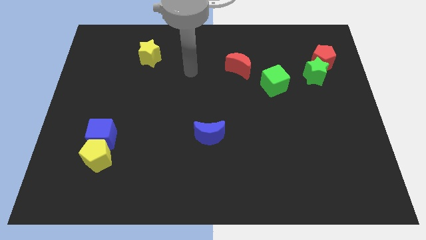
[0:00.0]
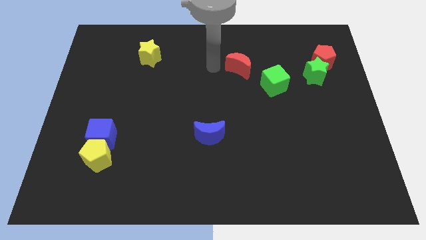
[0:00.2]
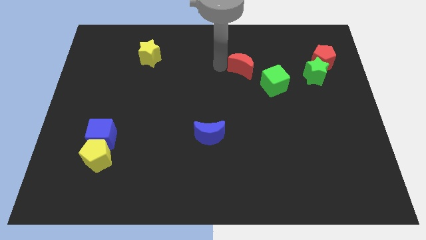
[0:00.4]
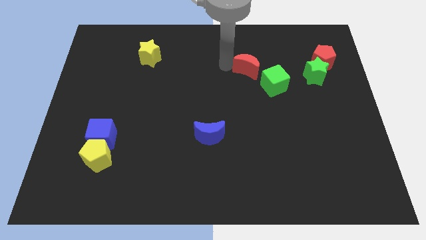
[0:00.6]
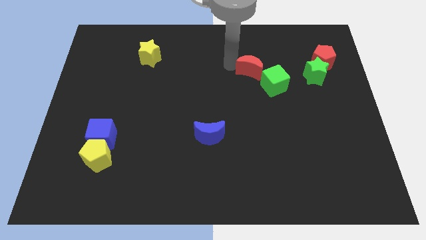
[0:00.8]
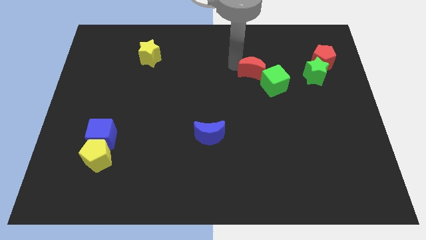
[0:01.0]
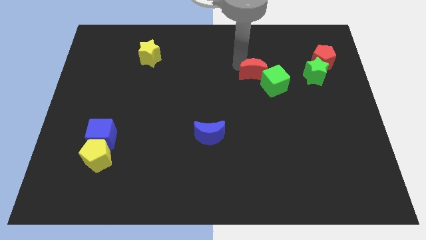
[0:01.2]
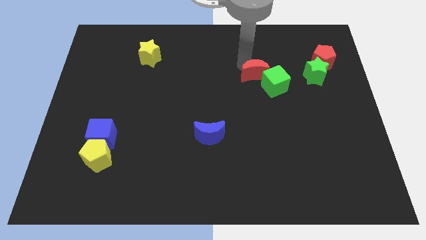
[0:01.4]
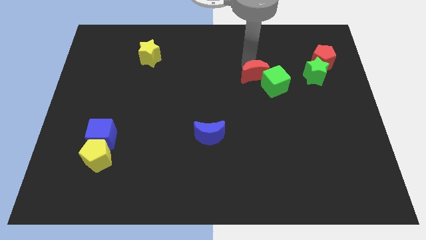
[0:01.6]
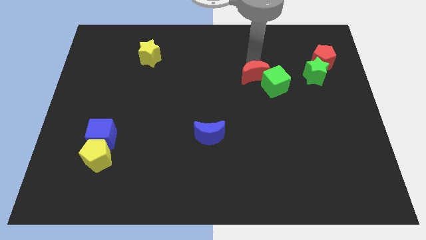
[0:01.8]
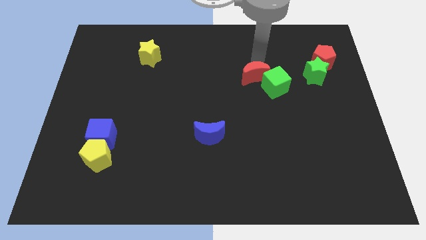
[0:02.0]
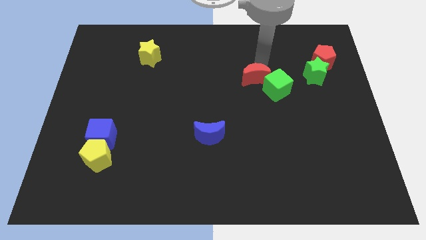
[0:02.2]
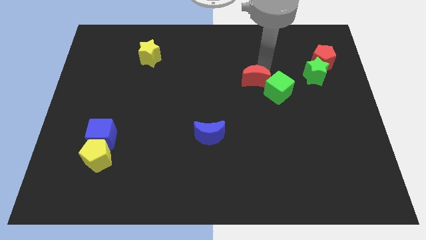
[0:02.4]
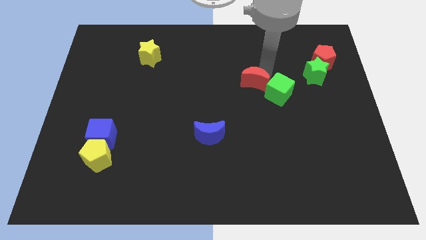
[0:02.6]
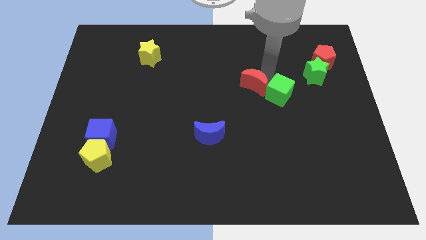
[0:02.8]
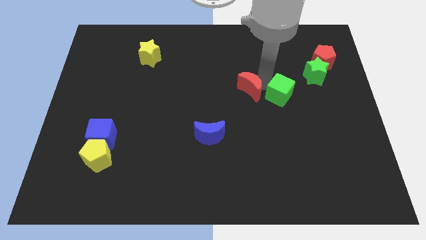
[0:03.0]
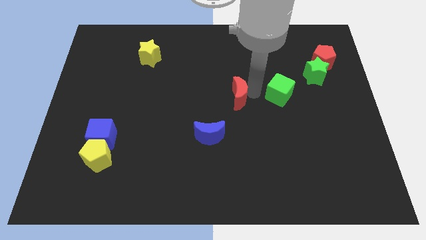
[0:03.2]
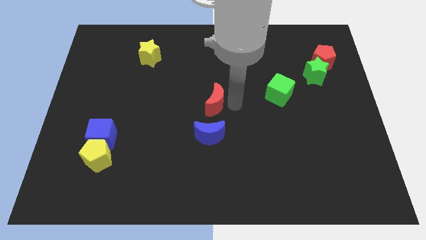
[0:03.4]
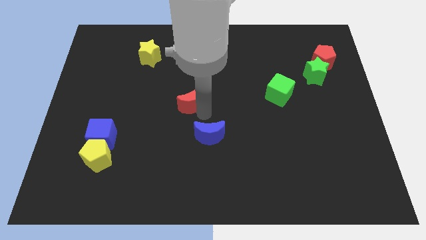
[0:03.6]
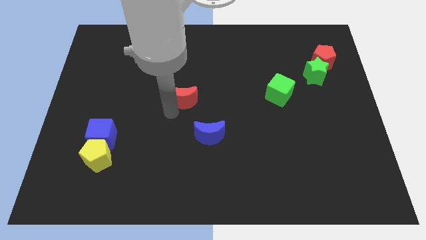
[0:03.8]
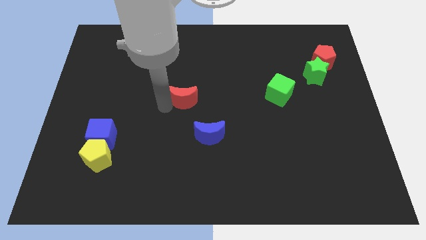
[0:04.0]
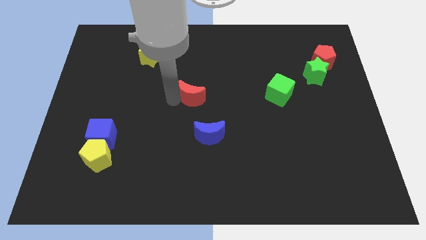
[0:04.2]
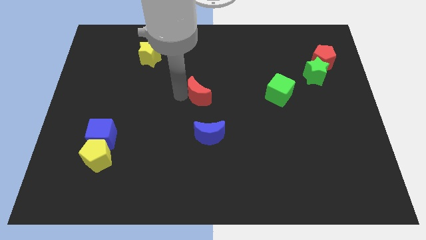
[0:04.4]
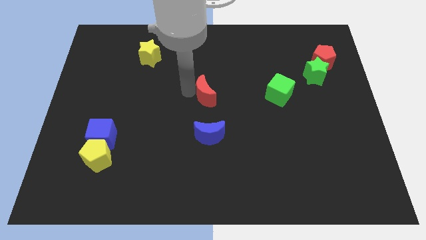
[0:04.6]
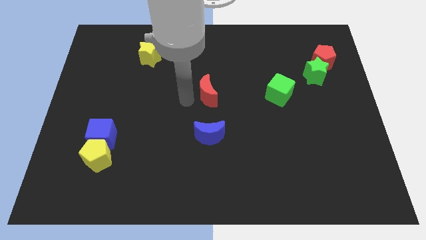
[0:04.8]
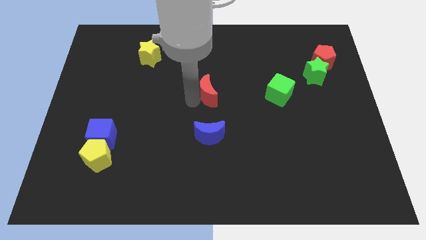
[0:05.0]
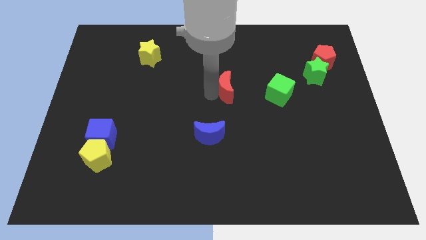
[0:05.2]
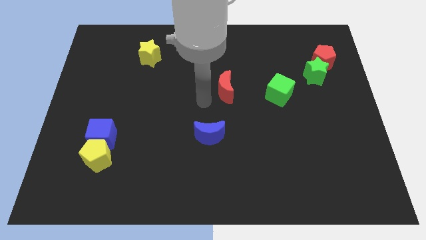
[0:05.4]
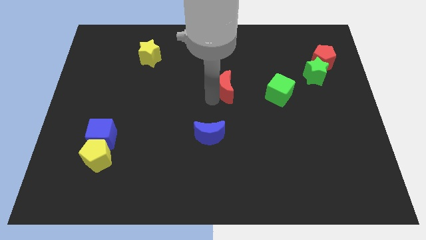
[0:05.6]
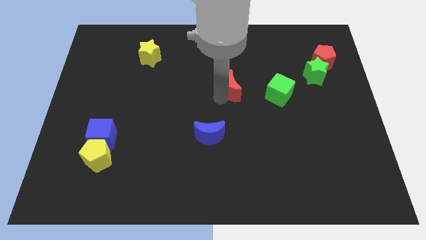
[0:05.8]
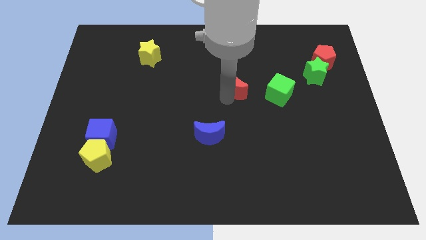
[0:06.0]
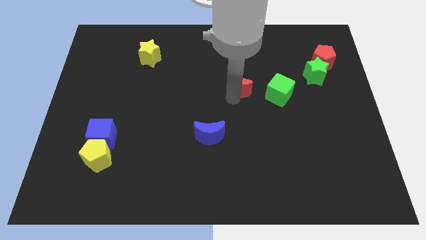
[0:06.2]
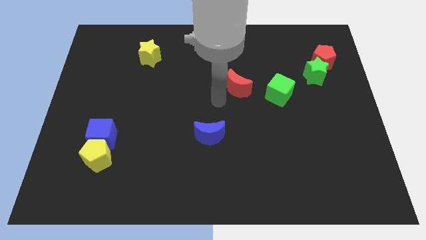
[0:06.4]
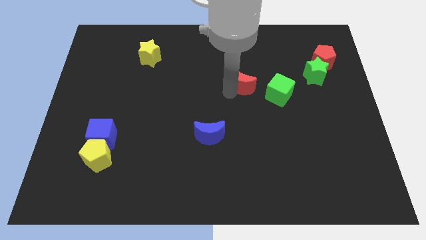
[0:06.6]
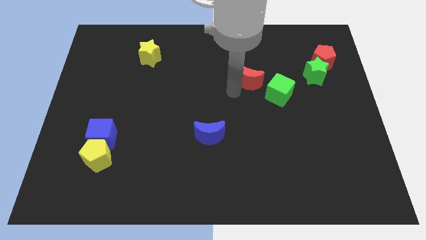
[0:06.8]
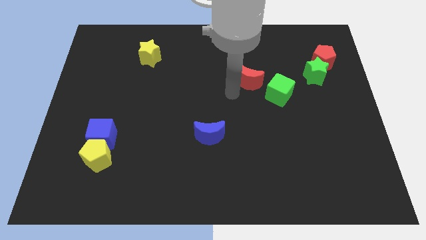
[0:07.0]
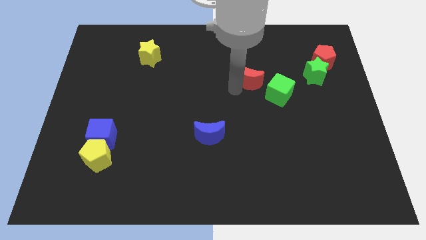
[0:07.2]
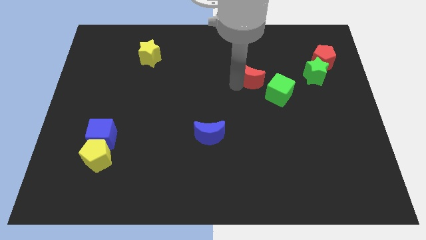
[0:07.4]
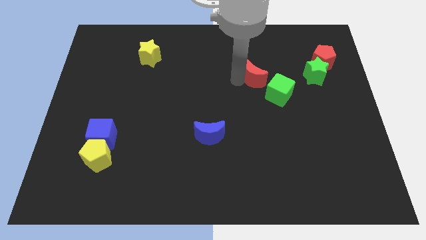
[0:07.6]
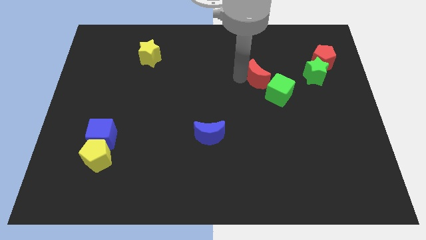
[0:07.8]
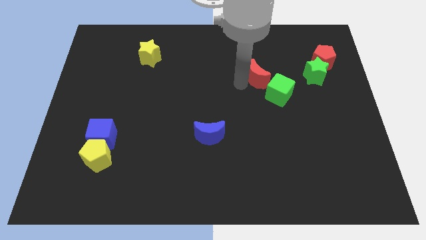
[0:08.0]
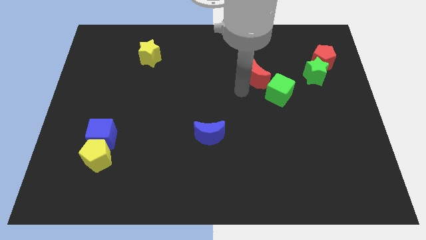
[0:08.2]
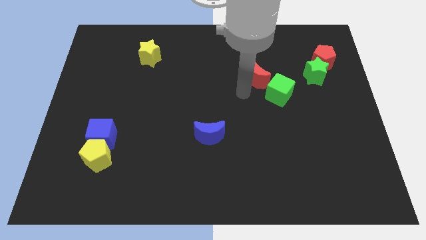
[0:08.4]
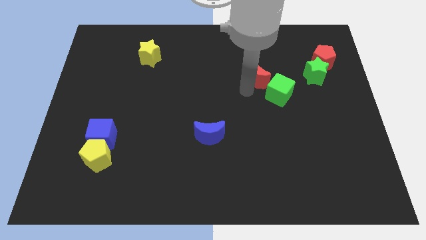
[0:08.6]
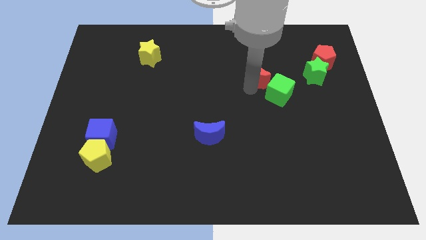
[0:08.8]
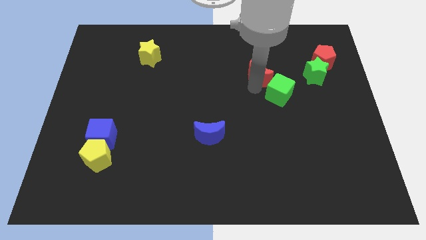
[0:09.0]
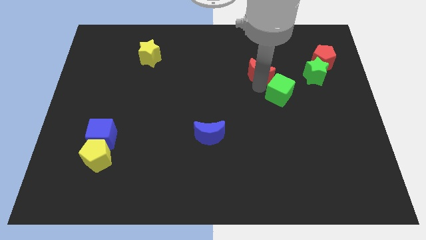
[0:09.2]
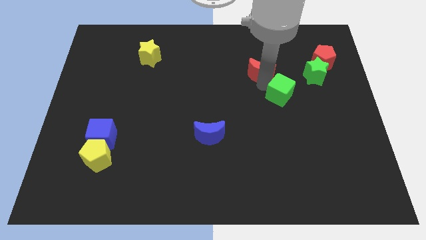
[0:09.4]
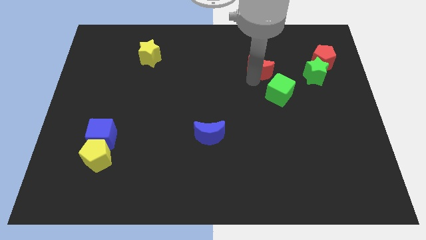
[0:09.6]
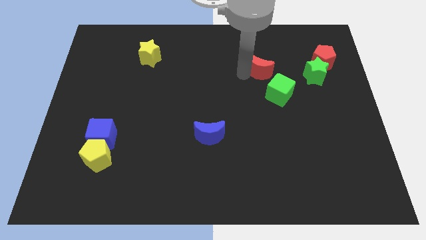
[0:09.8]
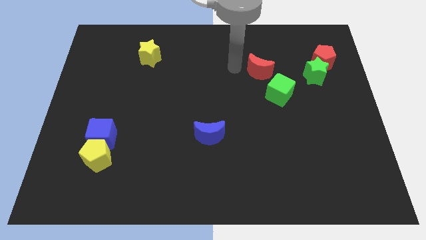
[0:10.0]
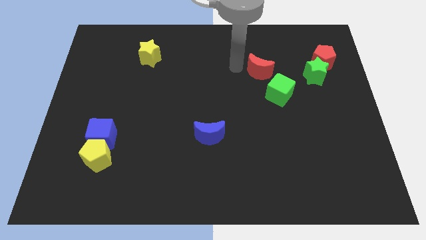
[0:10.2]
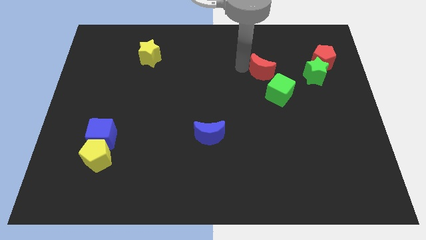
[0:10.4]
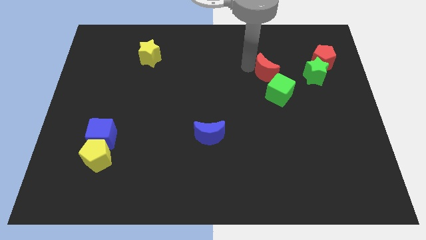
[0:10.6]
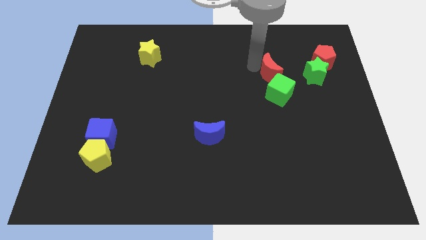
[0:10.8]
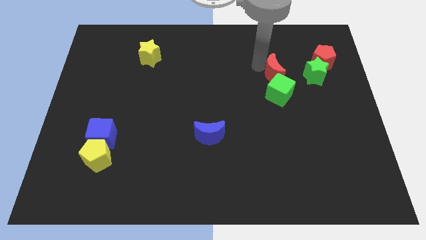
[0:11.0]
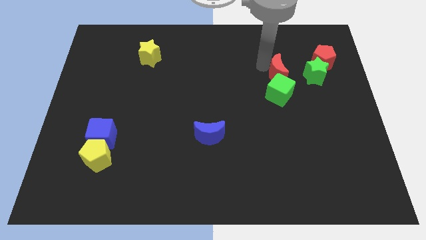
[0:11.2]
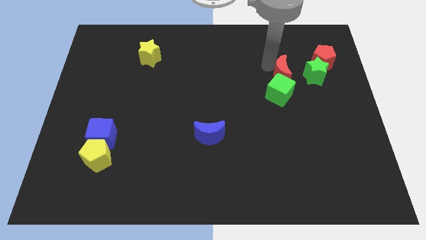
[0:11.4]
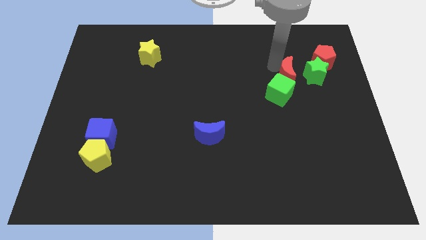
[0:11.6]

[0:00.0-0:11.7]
move the red moon to the bottom left side of the red pentagon
